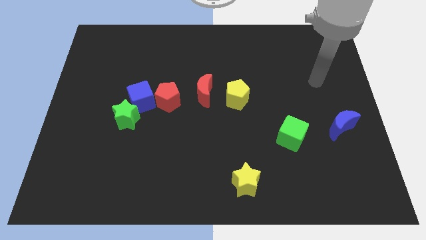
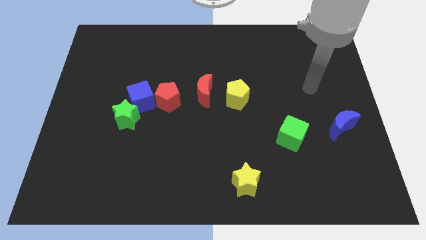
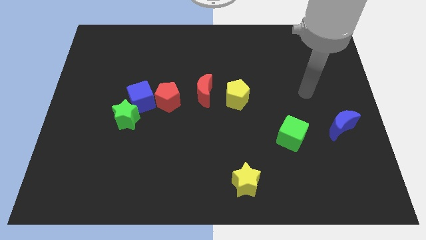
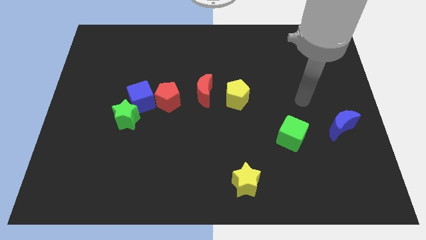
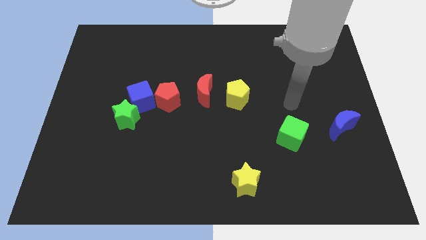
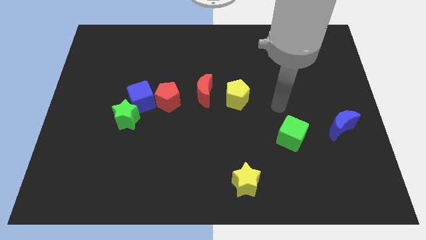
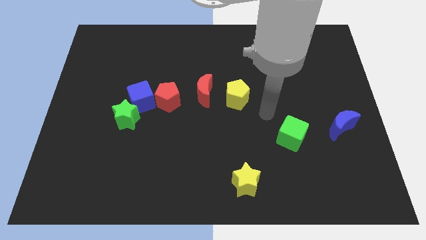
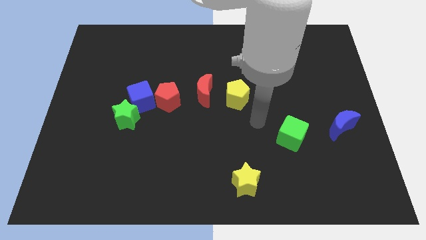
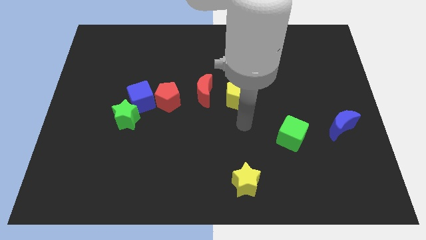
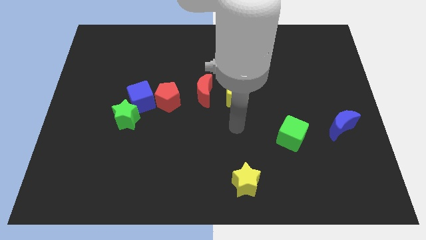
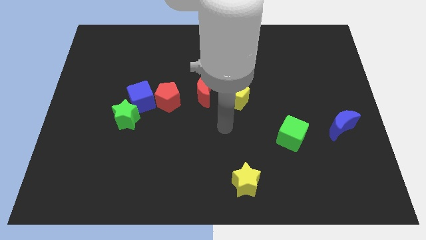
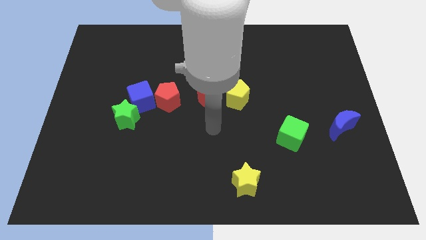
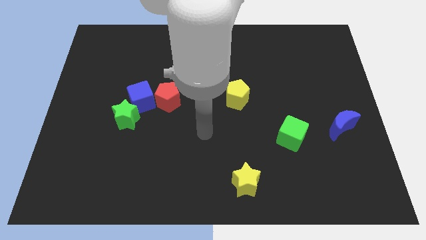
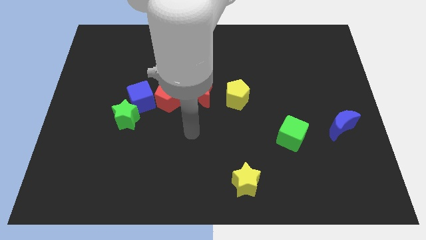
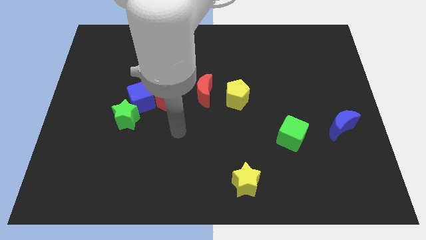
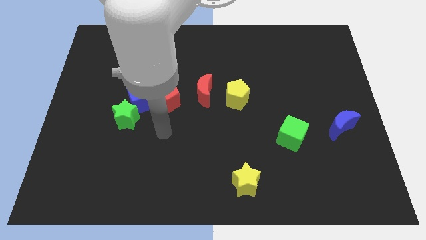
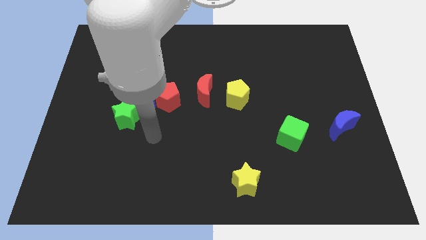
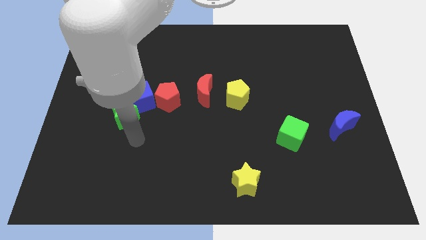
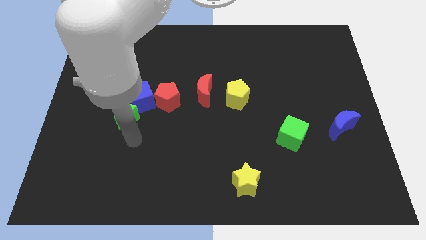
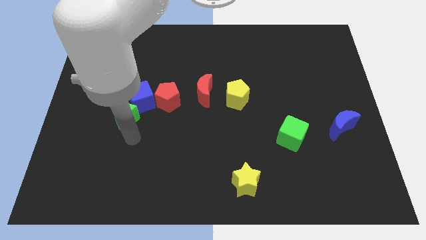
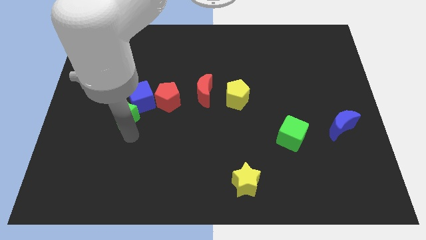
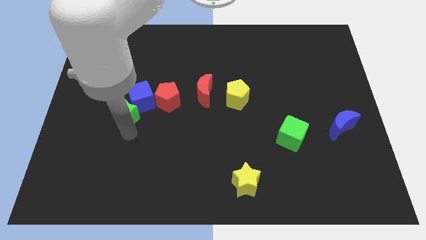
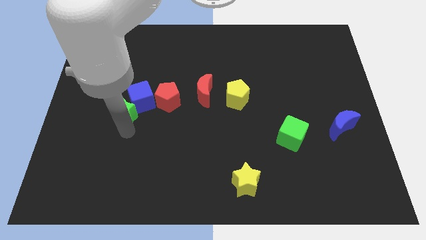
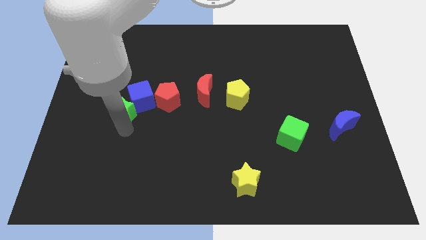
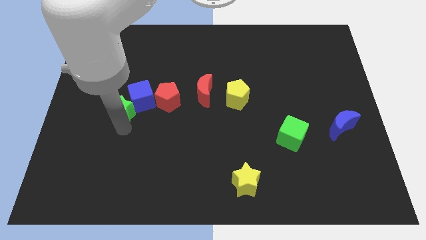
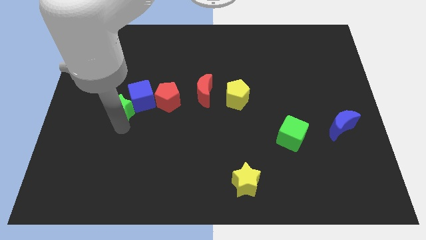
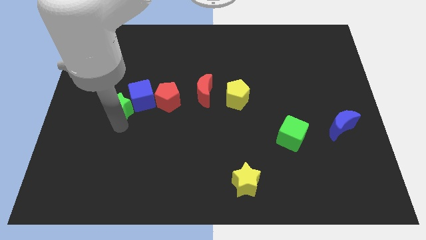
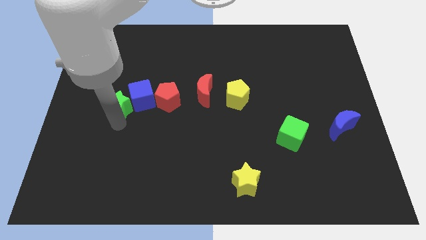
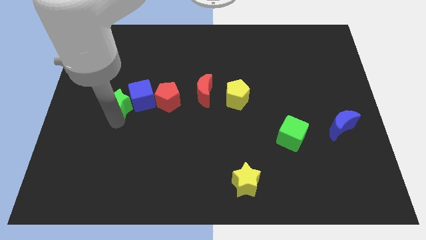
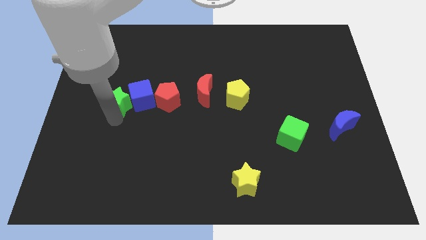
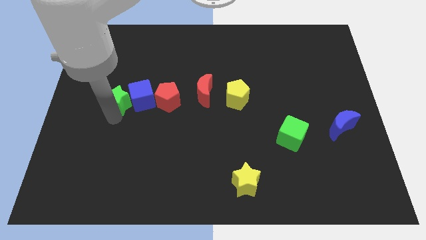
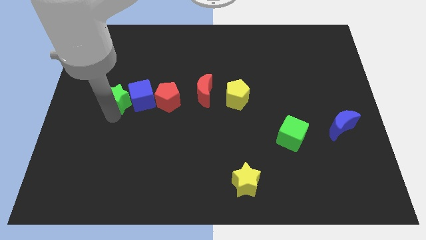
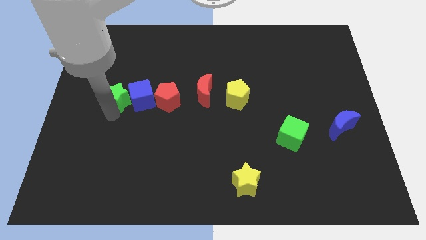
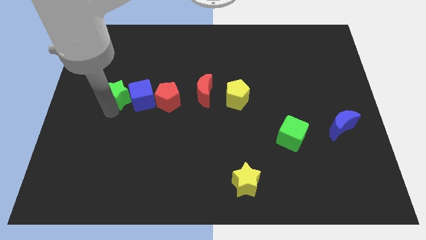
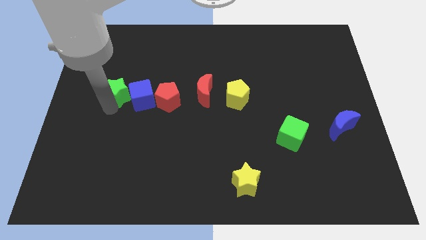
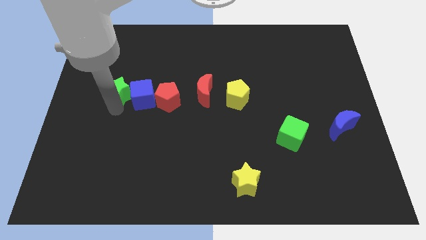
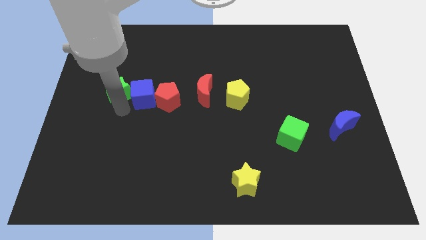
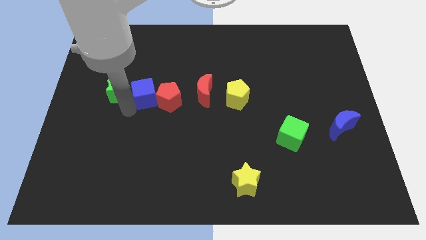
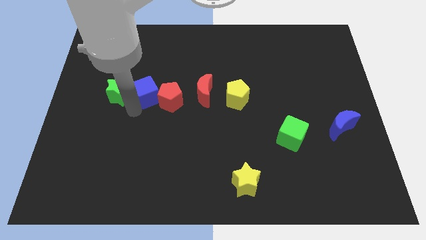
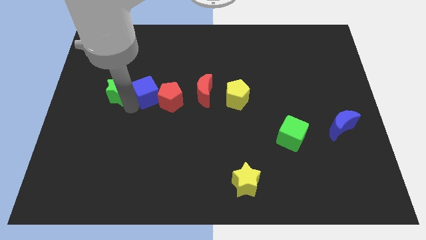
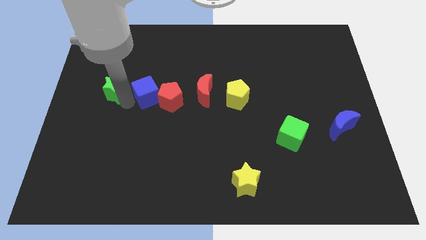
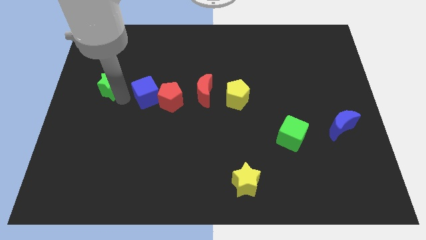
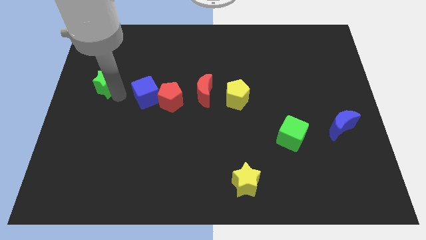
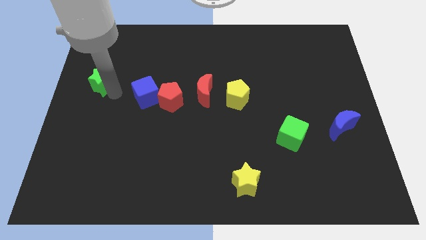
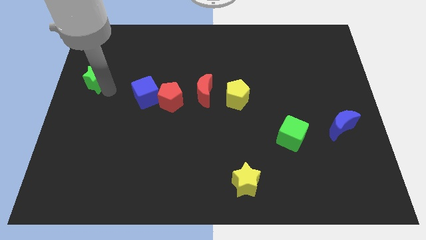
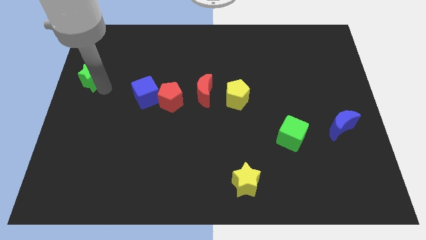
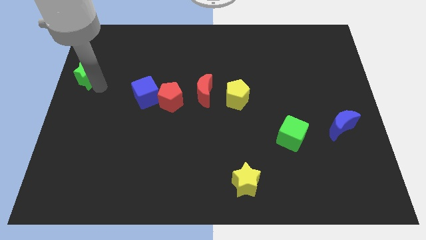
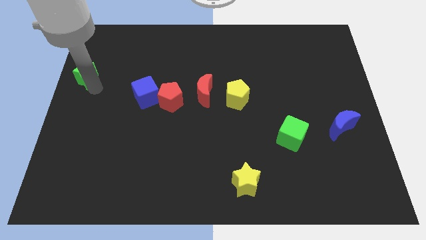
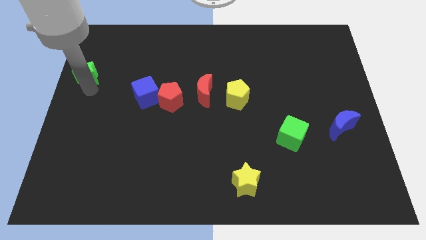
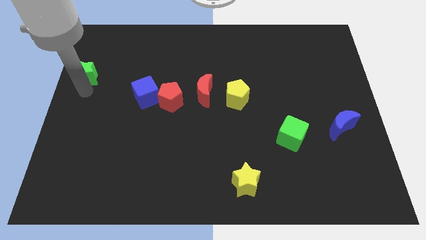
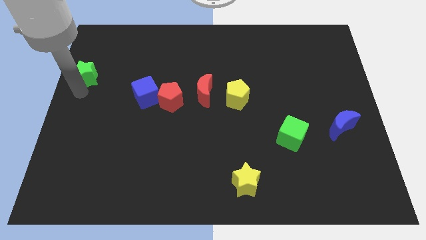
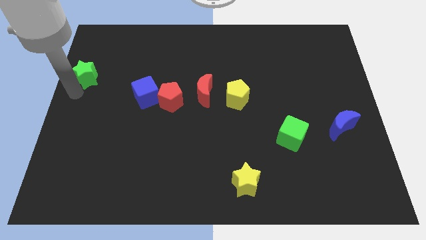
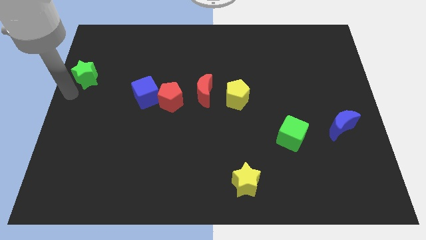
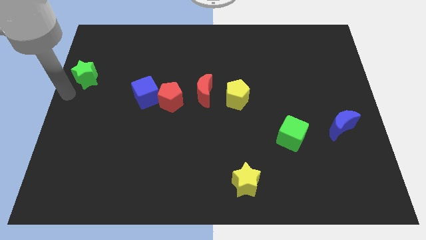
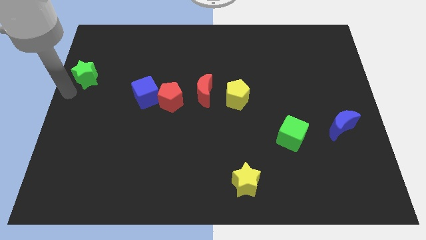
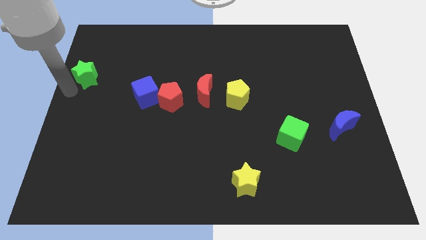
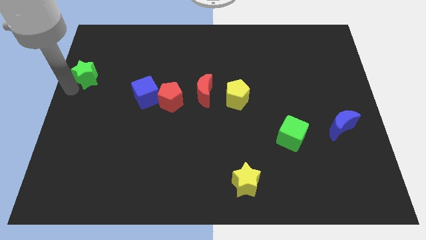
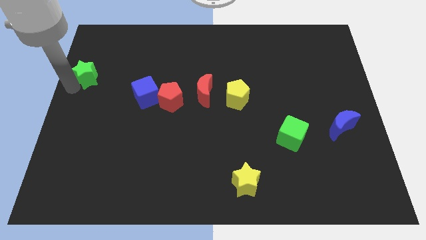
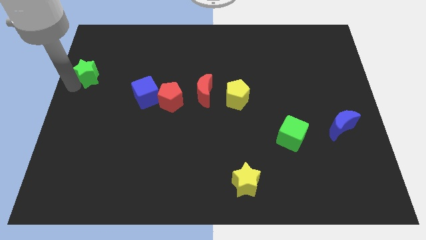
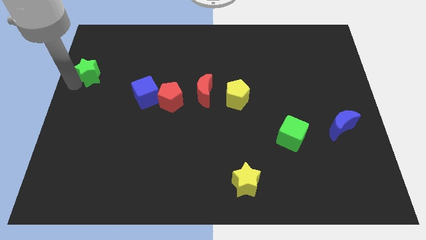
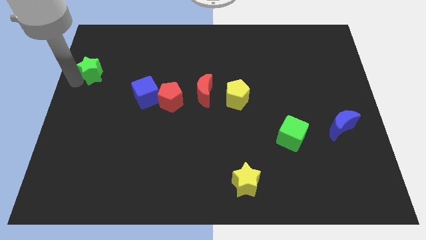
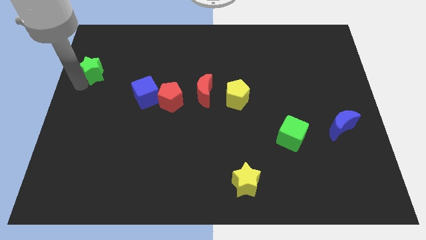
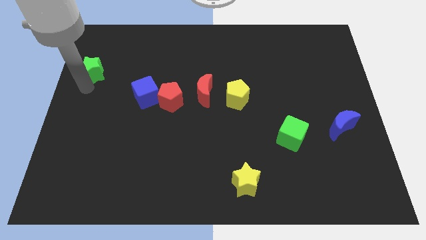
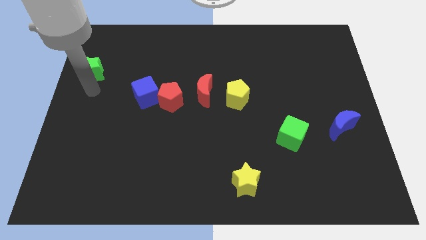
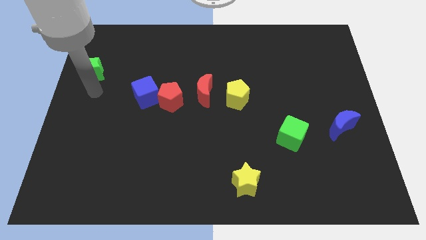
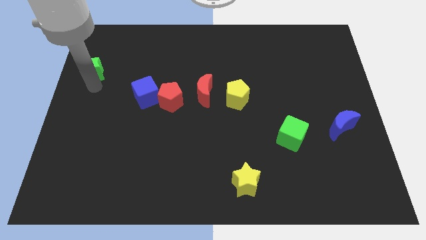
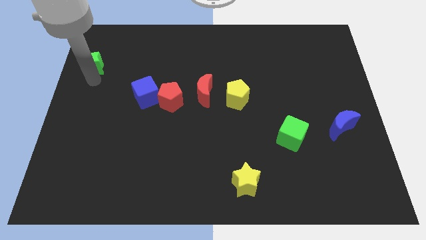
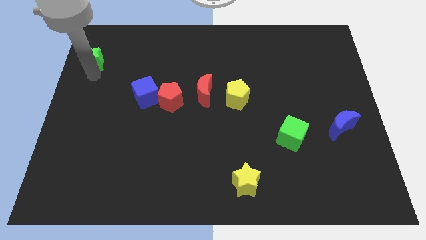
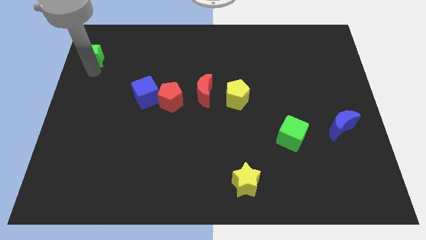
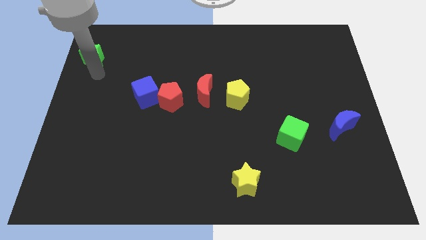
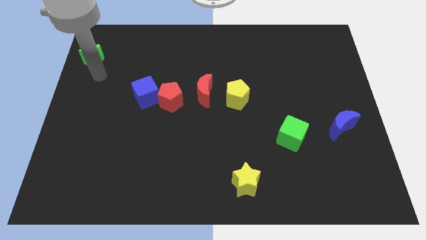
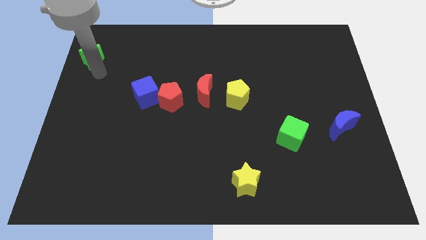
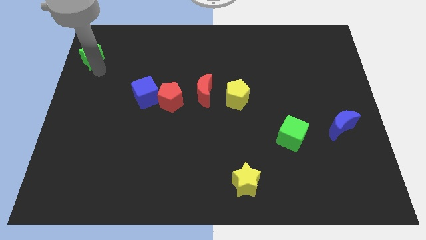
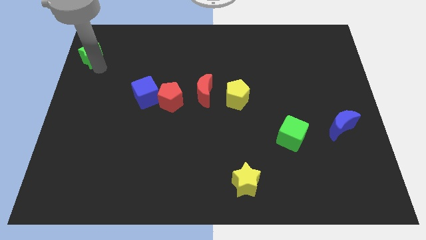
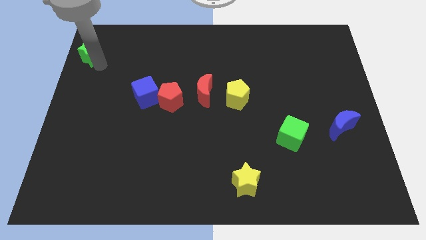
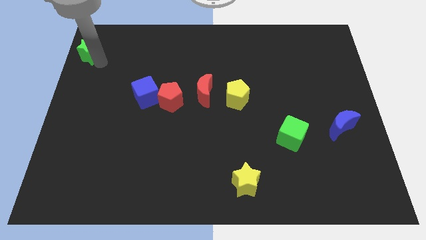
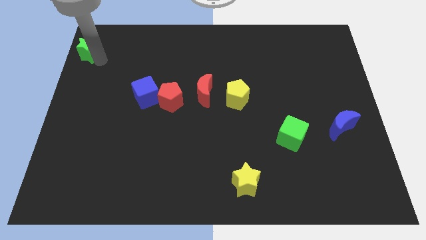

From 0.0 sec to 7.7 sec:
move the green star to the top left
